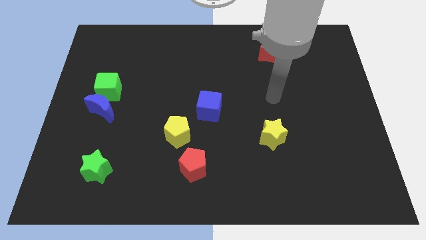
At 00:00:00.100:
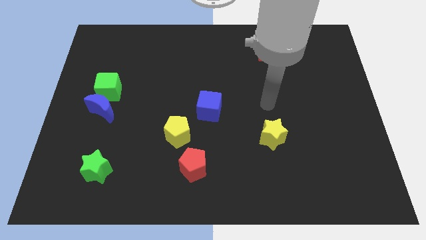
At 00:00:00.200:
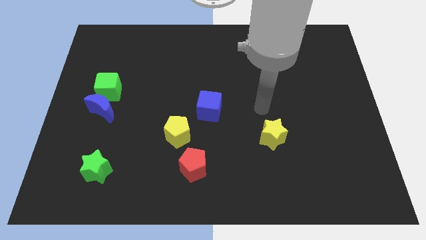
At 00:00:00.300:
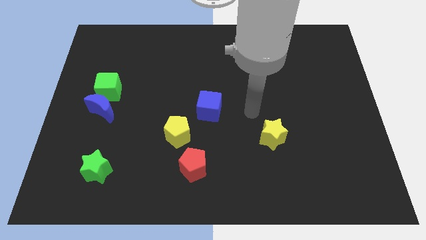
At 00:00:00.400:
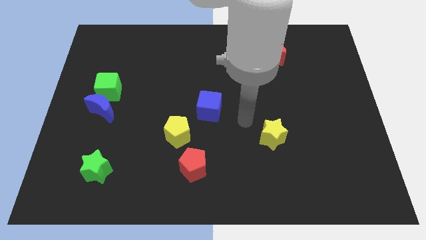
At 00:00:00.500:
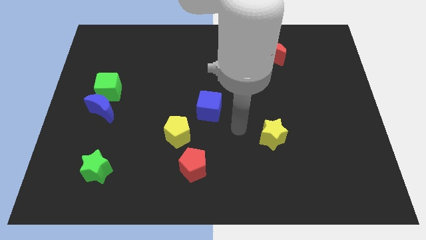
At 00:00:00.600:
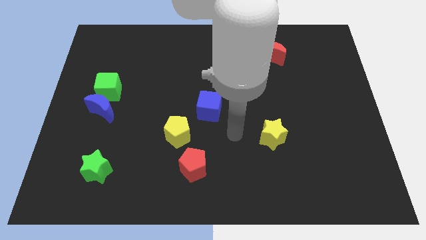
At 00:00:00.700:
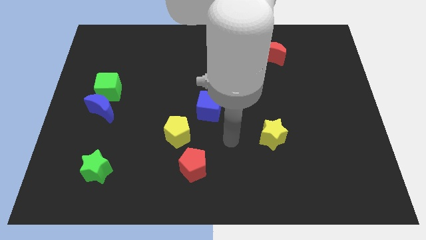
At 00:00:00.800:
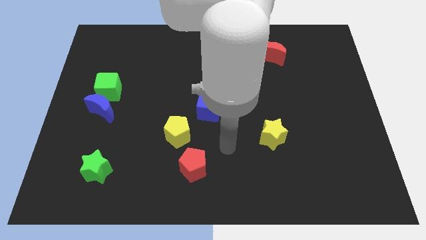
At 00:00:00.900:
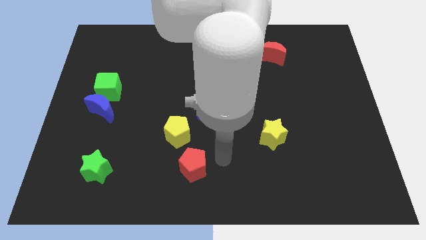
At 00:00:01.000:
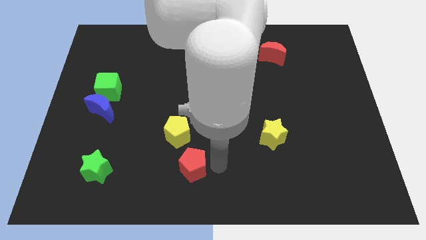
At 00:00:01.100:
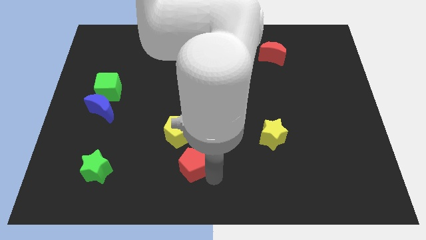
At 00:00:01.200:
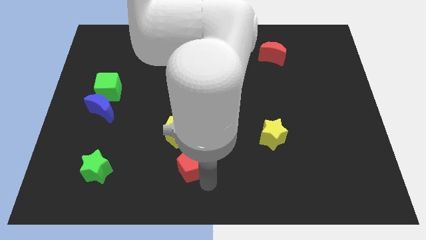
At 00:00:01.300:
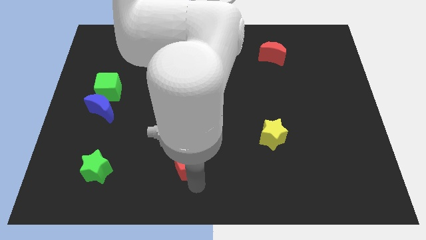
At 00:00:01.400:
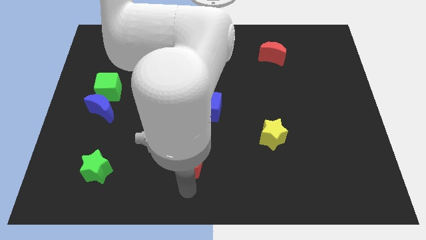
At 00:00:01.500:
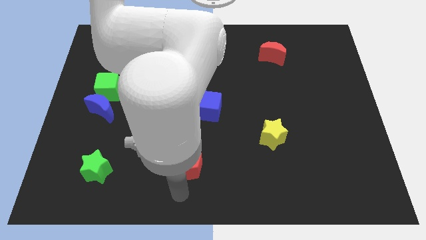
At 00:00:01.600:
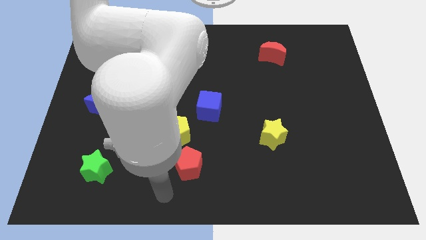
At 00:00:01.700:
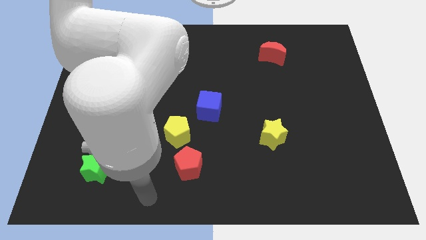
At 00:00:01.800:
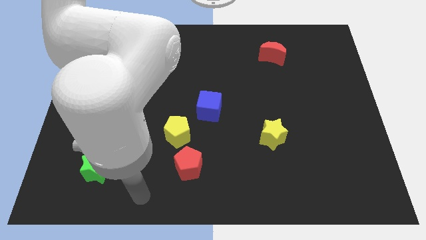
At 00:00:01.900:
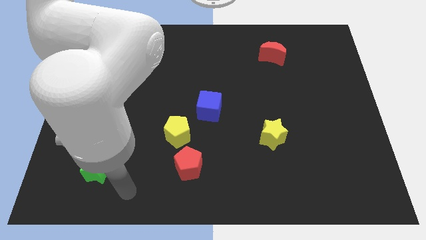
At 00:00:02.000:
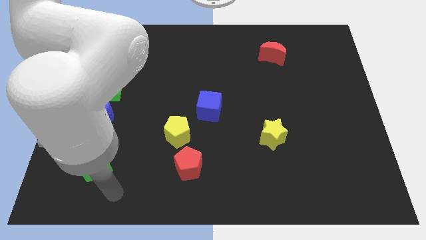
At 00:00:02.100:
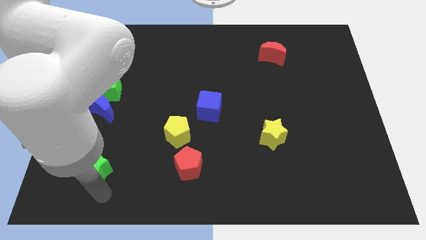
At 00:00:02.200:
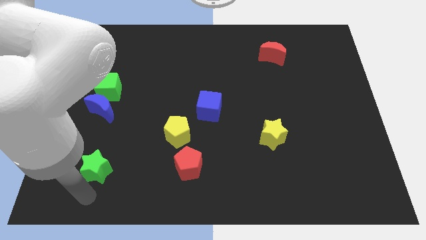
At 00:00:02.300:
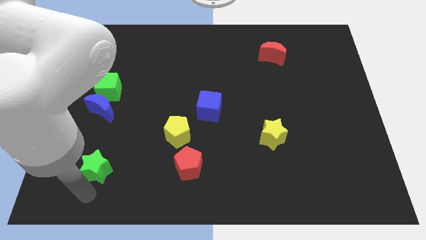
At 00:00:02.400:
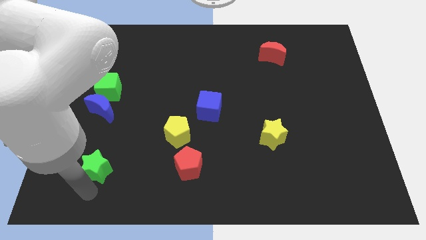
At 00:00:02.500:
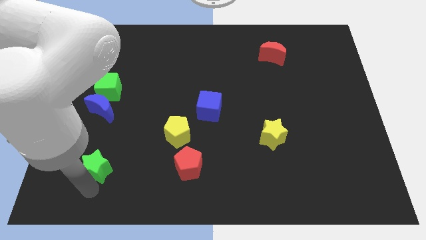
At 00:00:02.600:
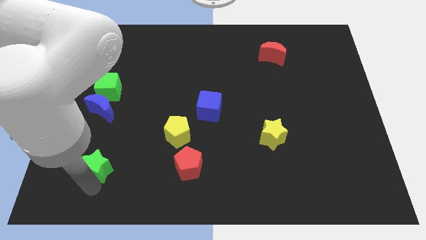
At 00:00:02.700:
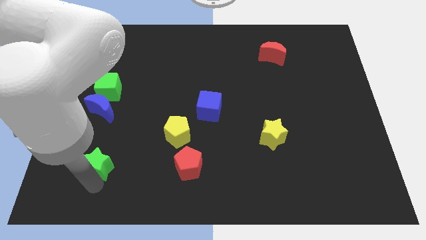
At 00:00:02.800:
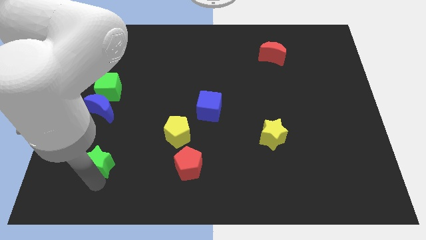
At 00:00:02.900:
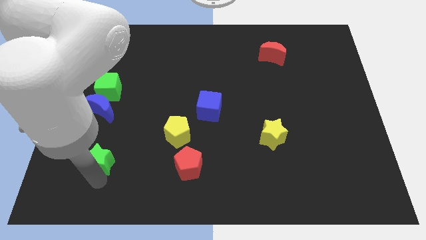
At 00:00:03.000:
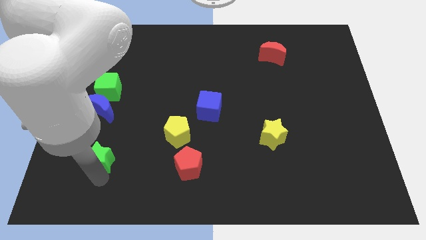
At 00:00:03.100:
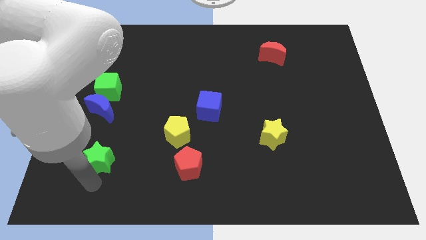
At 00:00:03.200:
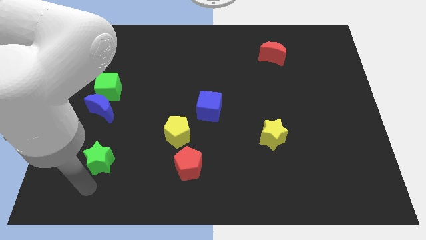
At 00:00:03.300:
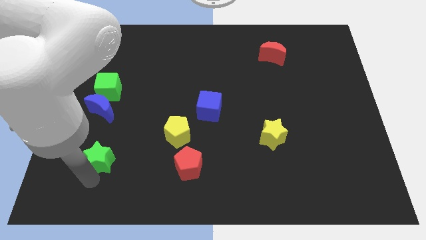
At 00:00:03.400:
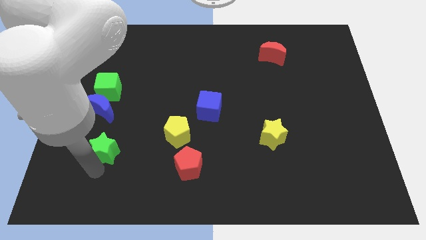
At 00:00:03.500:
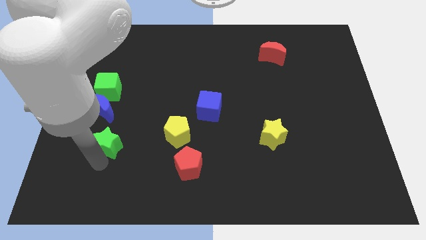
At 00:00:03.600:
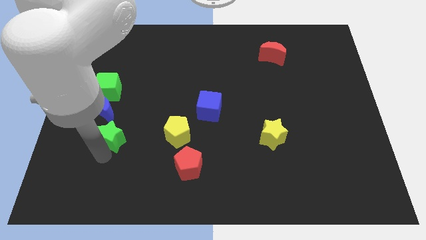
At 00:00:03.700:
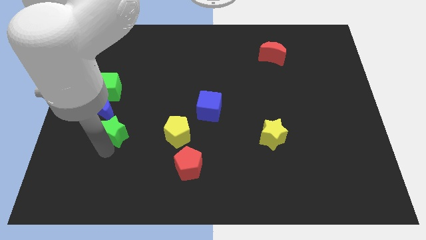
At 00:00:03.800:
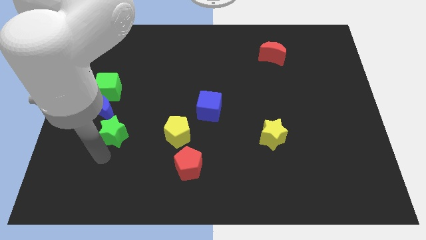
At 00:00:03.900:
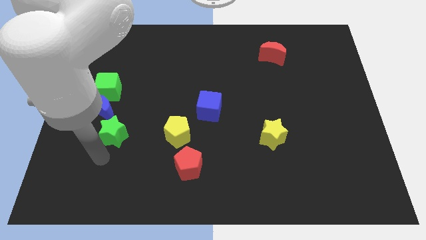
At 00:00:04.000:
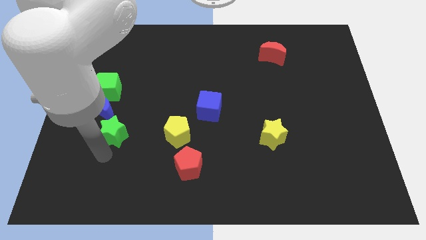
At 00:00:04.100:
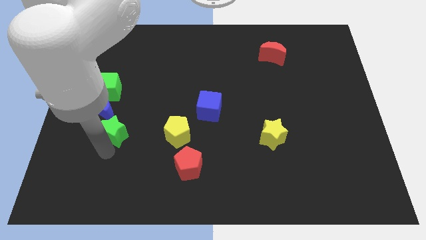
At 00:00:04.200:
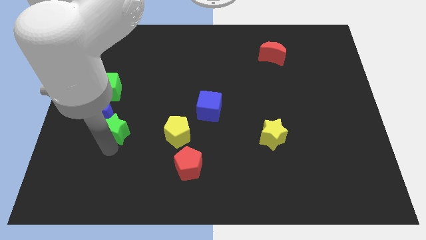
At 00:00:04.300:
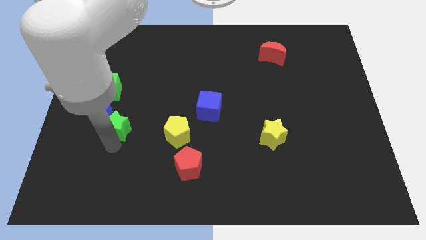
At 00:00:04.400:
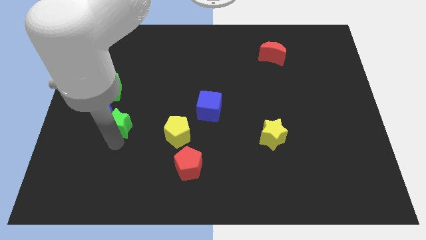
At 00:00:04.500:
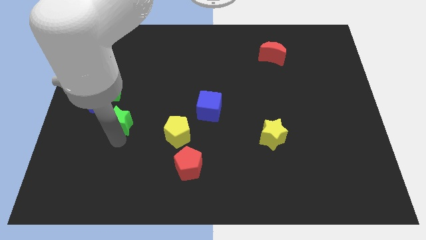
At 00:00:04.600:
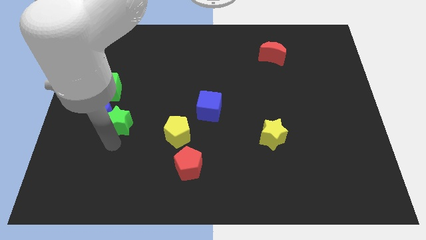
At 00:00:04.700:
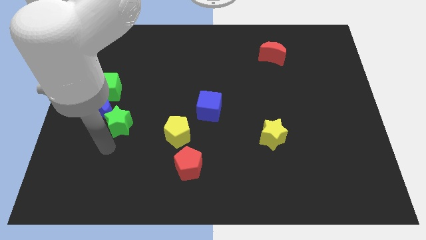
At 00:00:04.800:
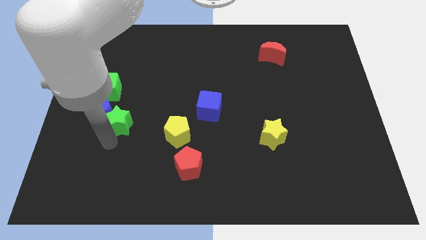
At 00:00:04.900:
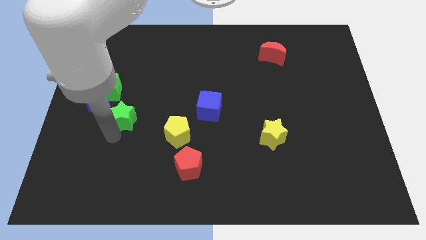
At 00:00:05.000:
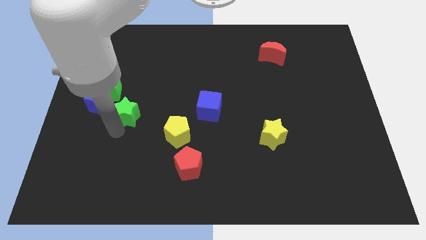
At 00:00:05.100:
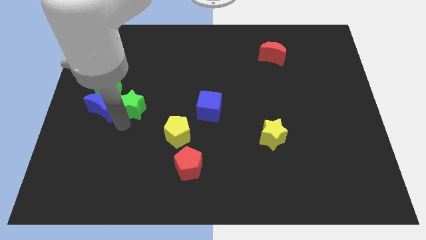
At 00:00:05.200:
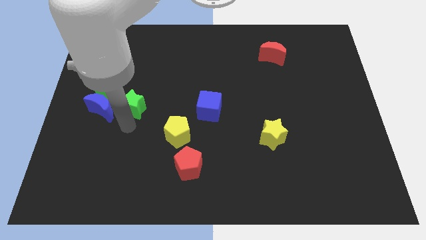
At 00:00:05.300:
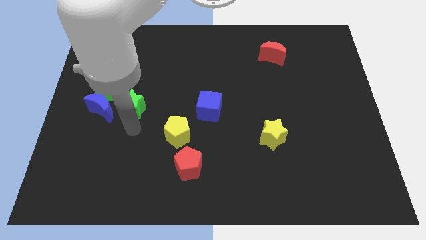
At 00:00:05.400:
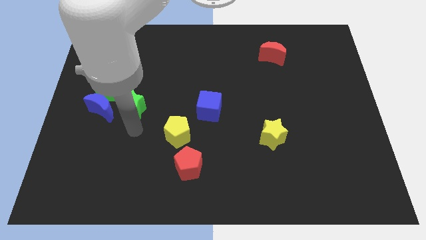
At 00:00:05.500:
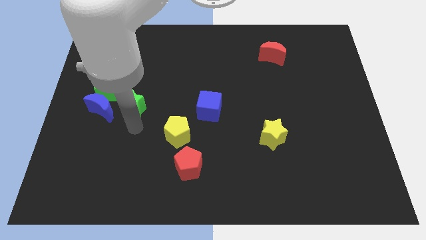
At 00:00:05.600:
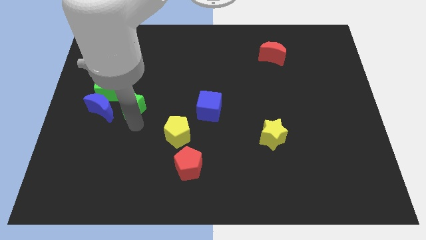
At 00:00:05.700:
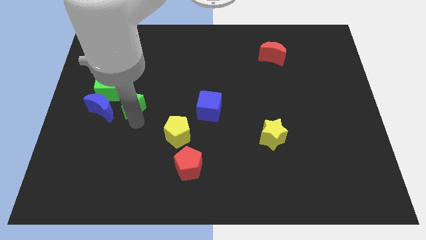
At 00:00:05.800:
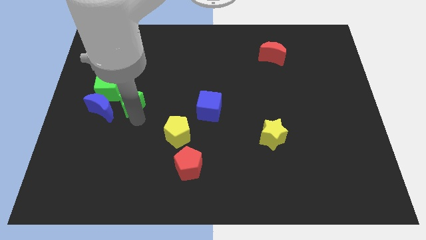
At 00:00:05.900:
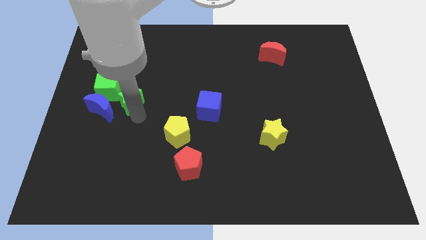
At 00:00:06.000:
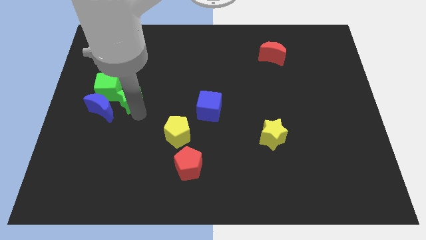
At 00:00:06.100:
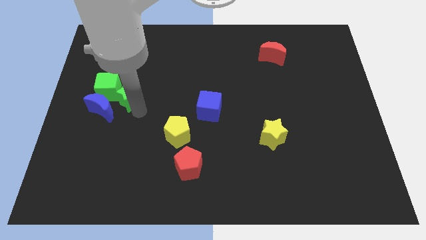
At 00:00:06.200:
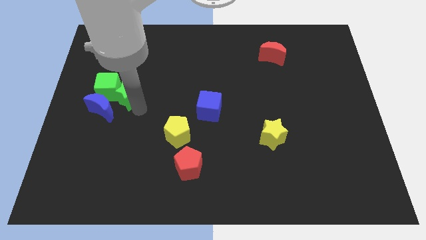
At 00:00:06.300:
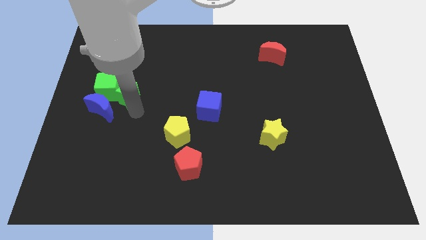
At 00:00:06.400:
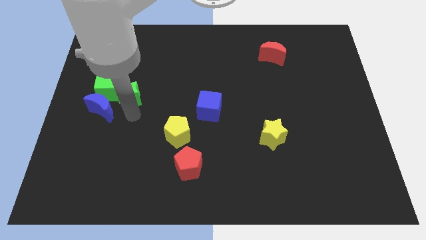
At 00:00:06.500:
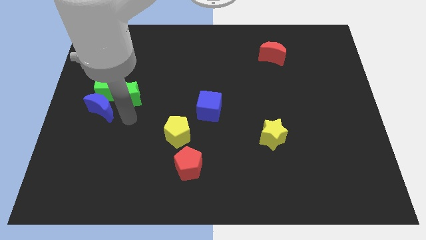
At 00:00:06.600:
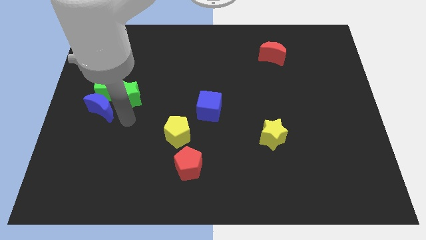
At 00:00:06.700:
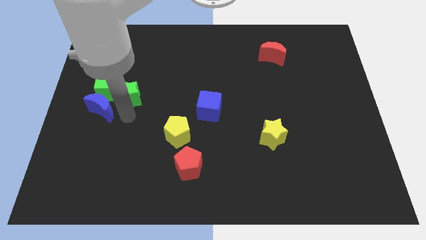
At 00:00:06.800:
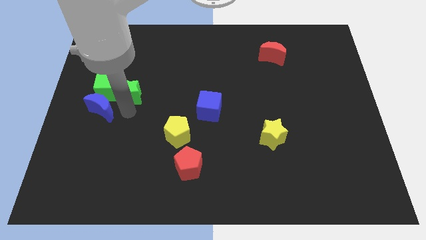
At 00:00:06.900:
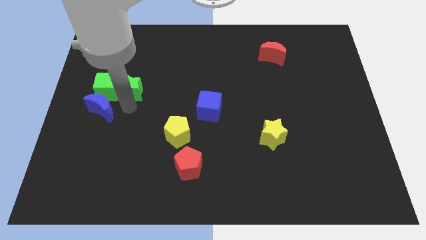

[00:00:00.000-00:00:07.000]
move the green star upwards

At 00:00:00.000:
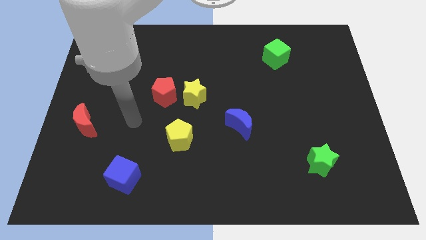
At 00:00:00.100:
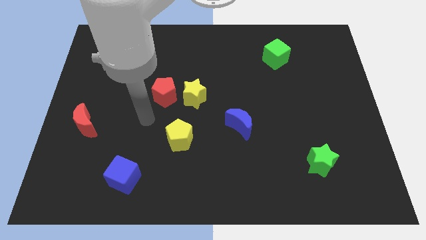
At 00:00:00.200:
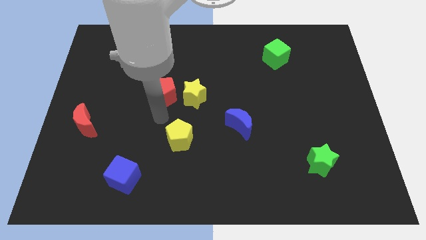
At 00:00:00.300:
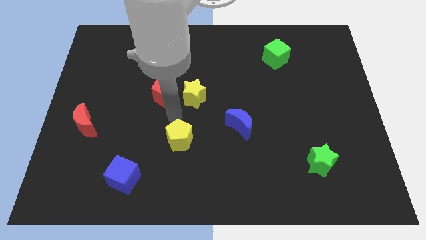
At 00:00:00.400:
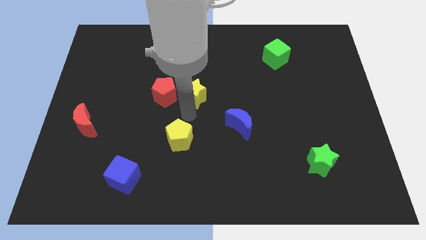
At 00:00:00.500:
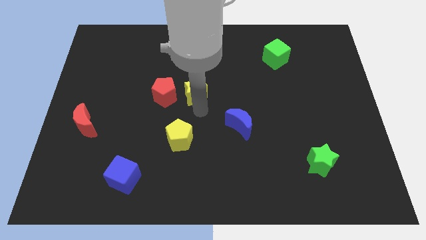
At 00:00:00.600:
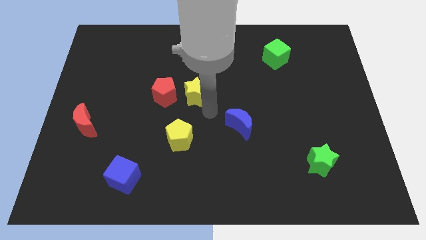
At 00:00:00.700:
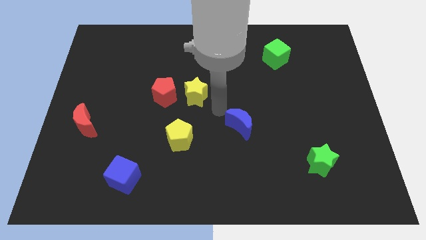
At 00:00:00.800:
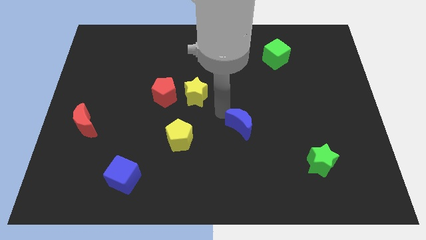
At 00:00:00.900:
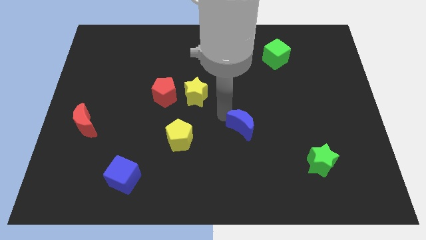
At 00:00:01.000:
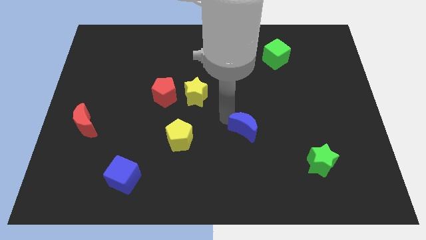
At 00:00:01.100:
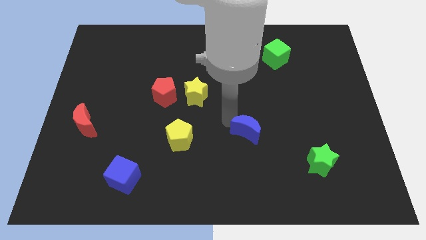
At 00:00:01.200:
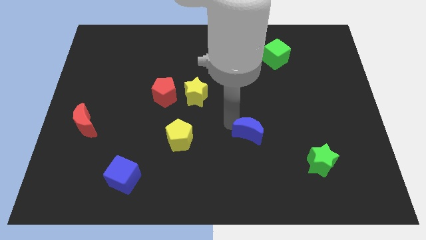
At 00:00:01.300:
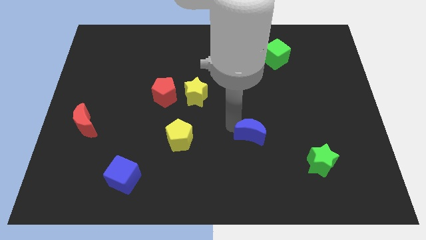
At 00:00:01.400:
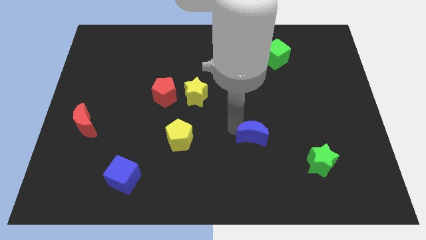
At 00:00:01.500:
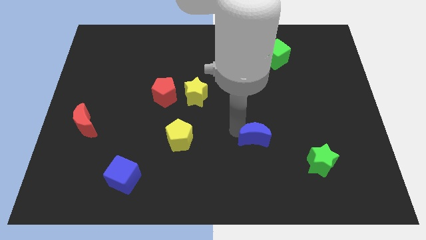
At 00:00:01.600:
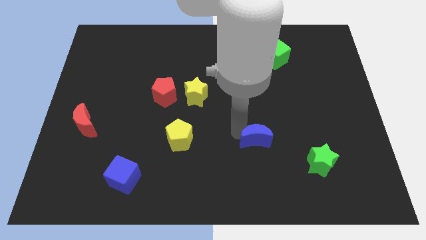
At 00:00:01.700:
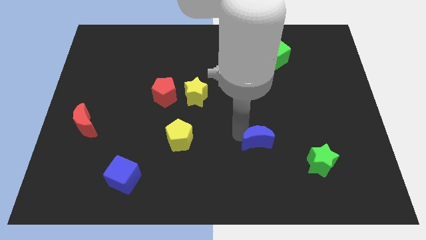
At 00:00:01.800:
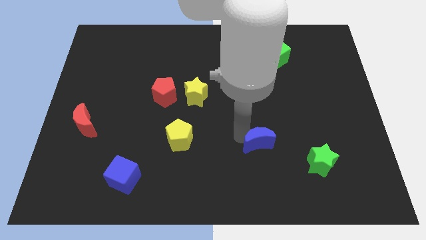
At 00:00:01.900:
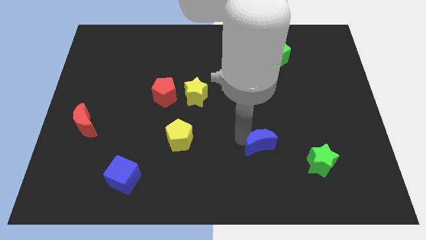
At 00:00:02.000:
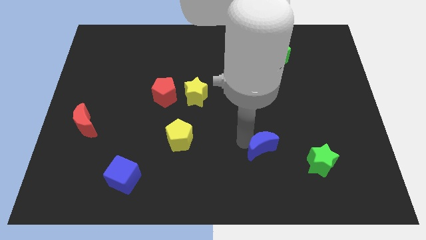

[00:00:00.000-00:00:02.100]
push the blue moon diagonally downwards and to the right a little
